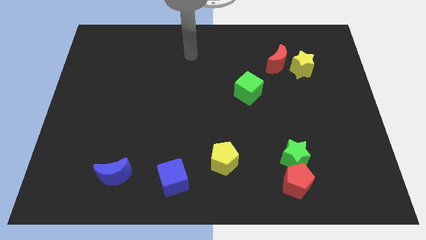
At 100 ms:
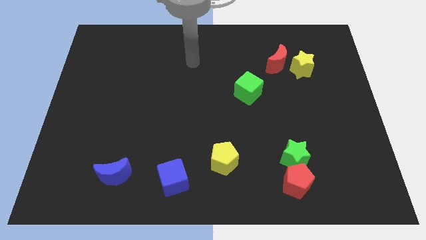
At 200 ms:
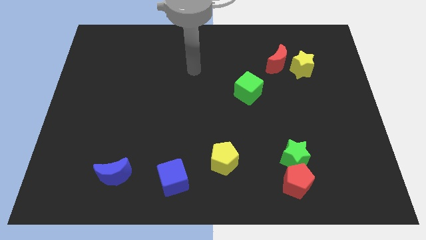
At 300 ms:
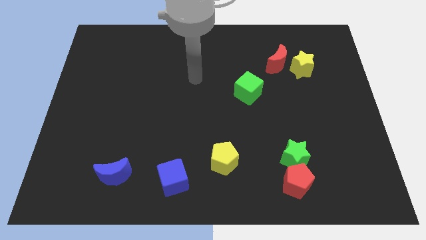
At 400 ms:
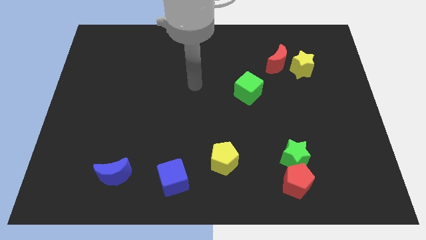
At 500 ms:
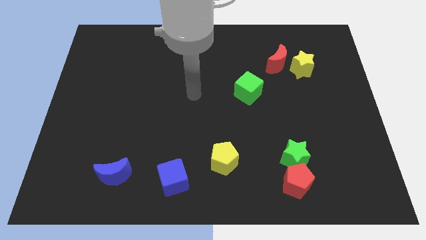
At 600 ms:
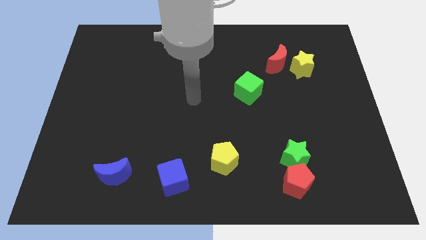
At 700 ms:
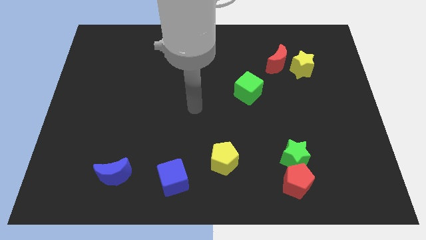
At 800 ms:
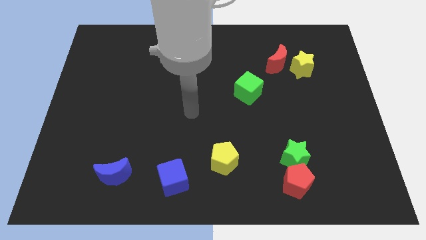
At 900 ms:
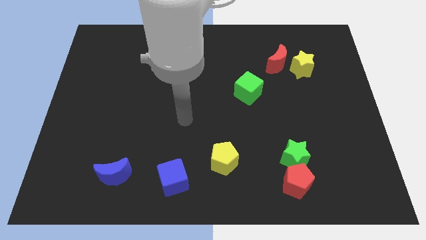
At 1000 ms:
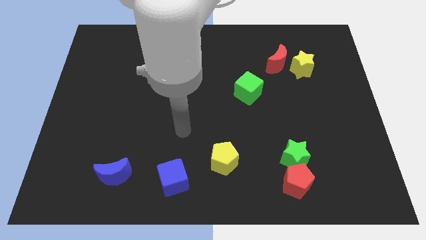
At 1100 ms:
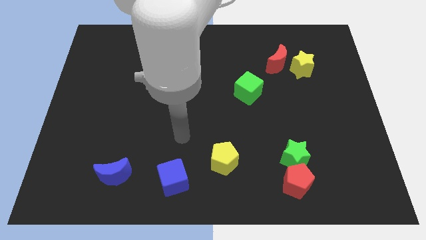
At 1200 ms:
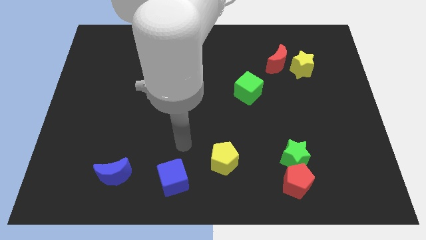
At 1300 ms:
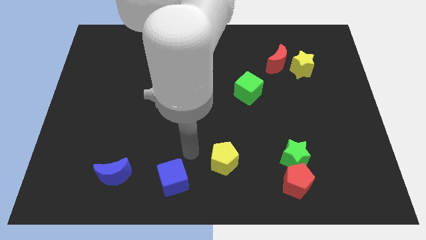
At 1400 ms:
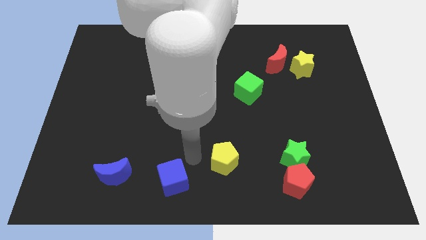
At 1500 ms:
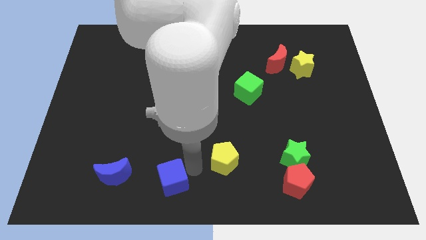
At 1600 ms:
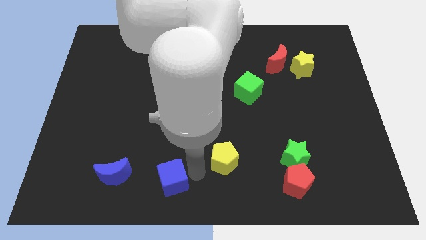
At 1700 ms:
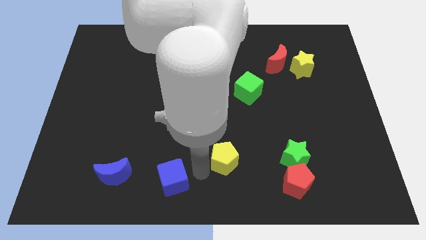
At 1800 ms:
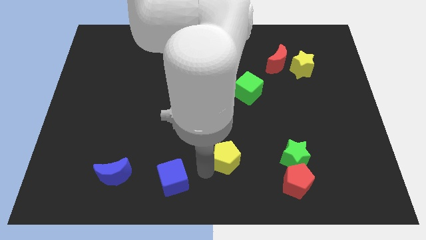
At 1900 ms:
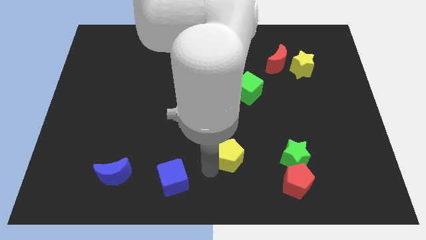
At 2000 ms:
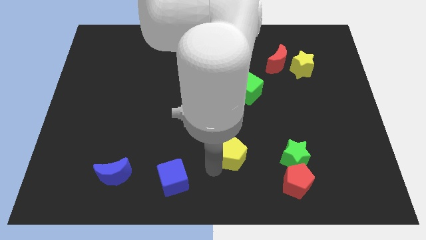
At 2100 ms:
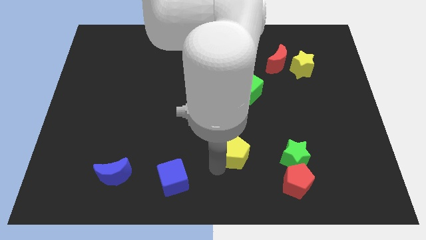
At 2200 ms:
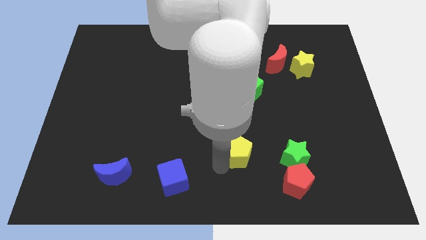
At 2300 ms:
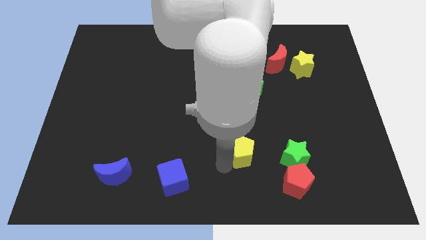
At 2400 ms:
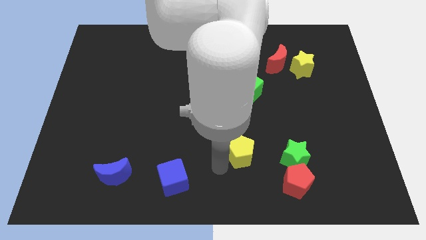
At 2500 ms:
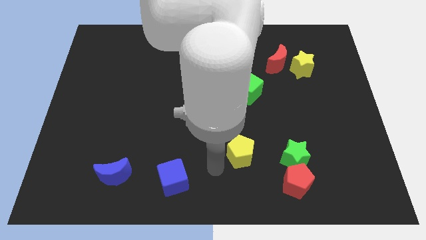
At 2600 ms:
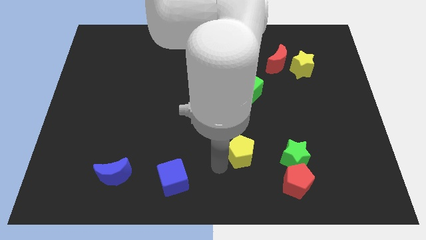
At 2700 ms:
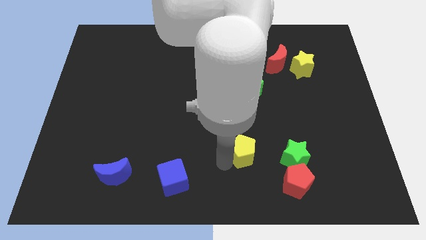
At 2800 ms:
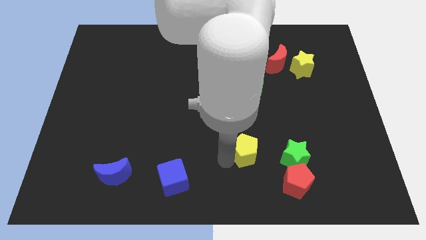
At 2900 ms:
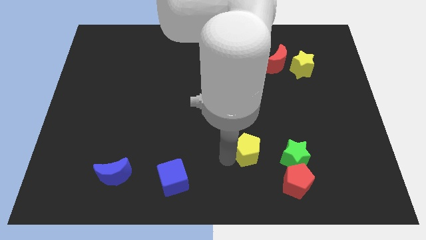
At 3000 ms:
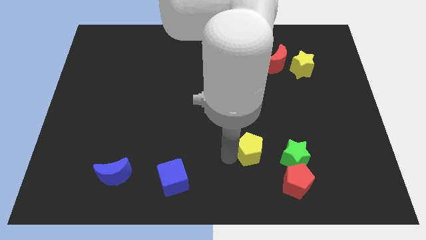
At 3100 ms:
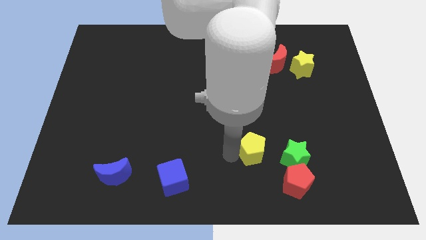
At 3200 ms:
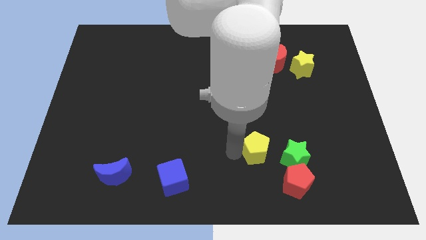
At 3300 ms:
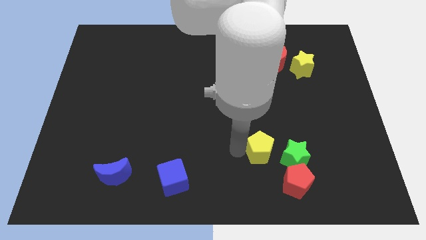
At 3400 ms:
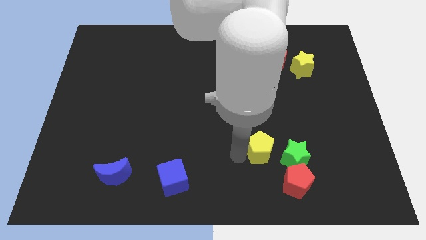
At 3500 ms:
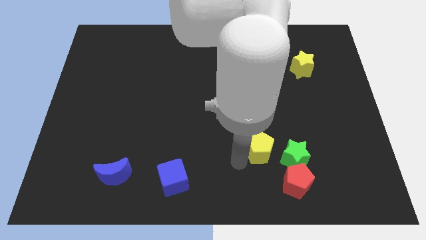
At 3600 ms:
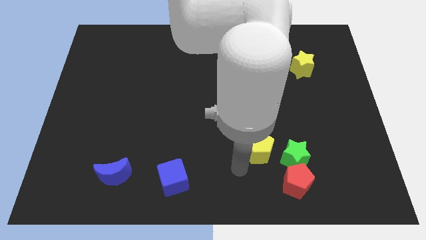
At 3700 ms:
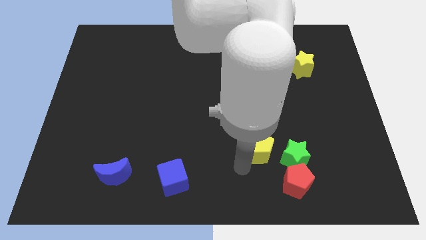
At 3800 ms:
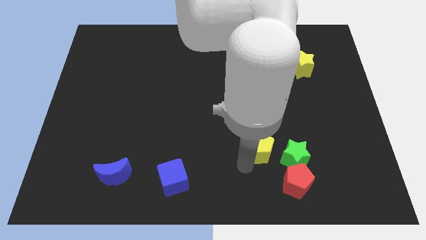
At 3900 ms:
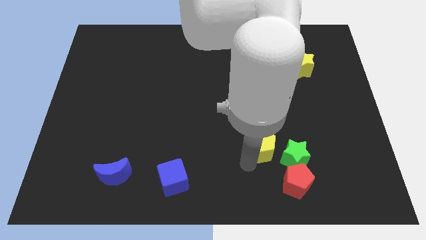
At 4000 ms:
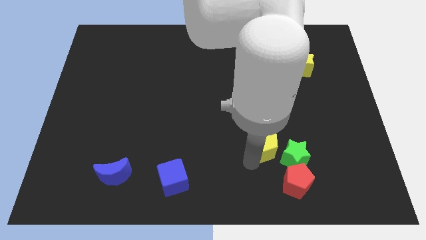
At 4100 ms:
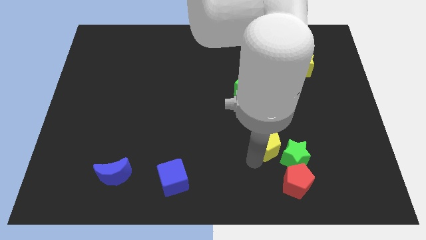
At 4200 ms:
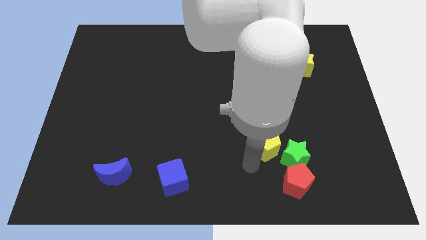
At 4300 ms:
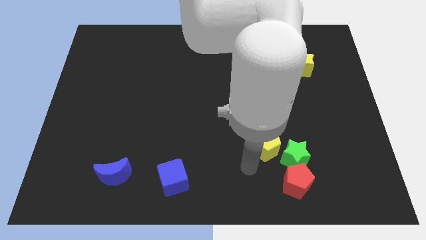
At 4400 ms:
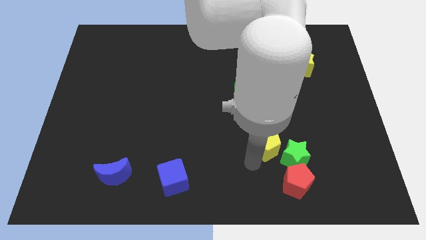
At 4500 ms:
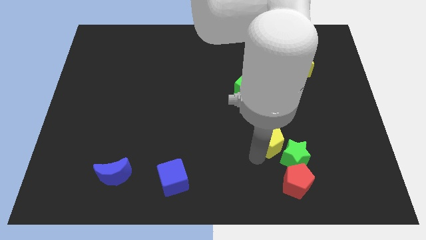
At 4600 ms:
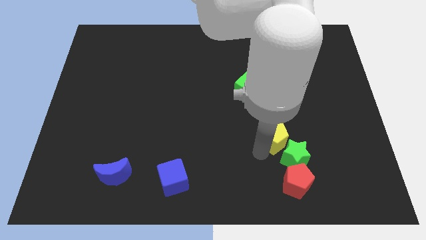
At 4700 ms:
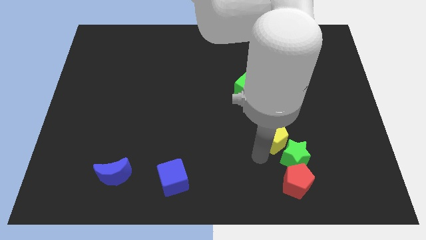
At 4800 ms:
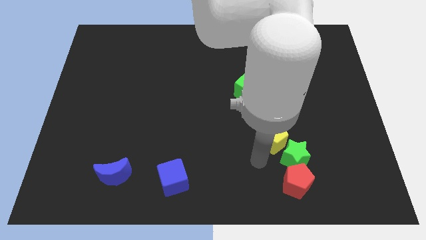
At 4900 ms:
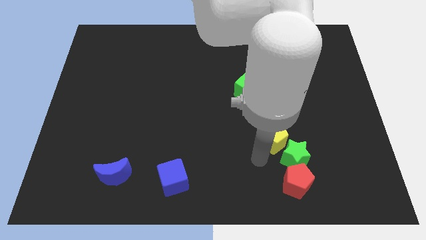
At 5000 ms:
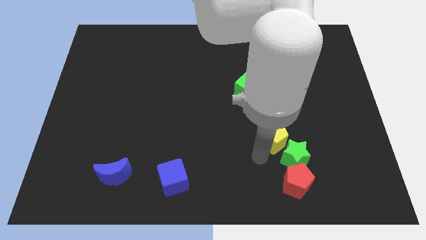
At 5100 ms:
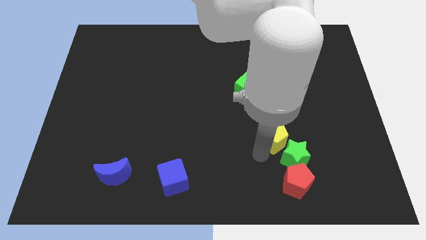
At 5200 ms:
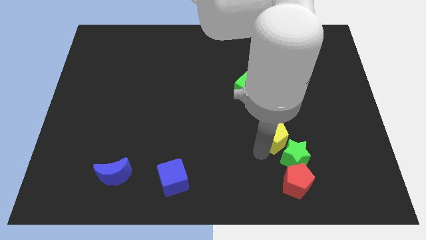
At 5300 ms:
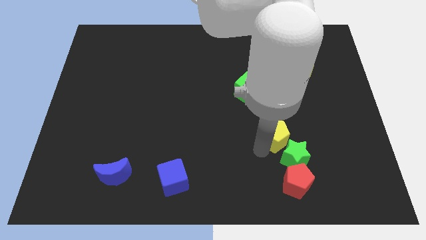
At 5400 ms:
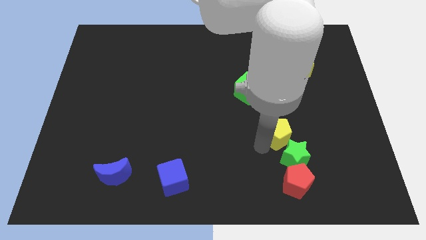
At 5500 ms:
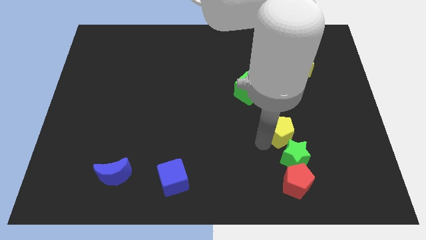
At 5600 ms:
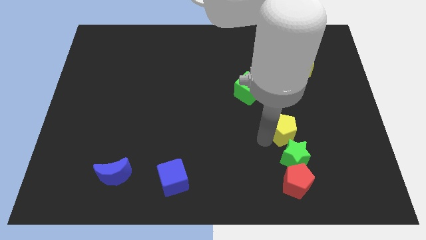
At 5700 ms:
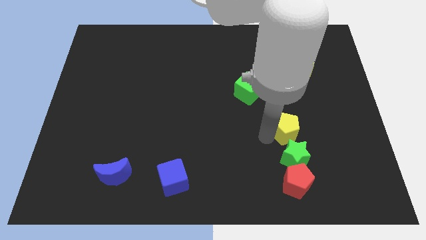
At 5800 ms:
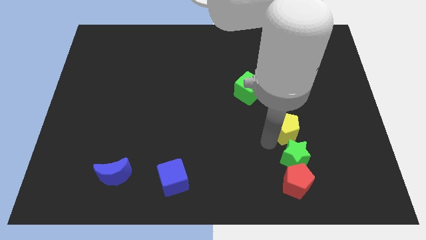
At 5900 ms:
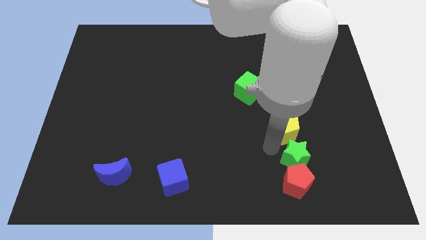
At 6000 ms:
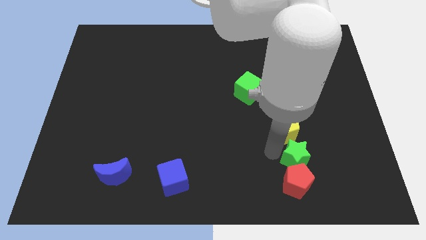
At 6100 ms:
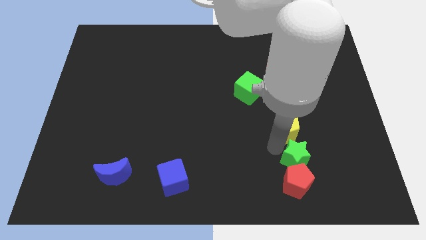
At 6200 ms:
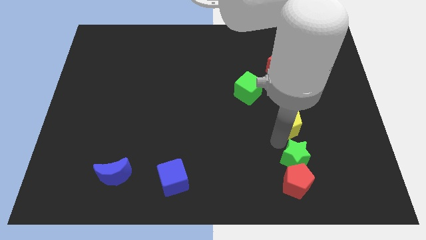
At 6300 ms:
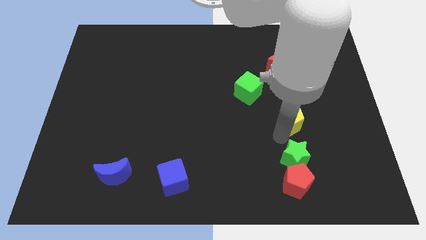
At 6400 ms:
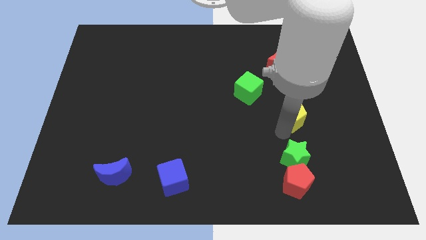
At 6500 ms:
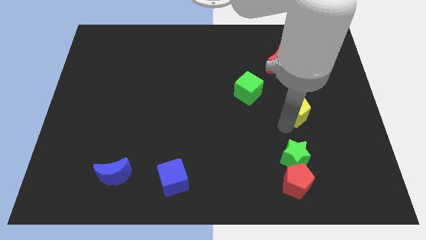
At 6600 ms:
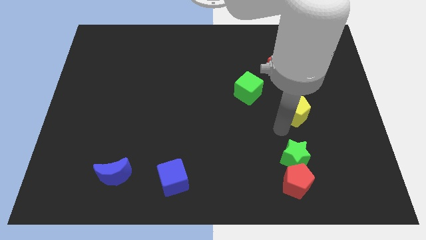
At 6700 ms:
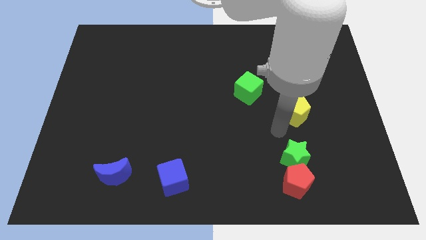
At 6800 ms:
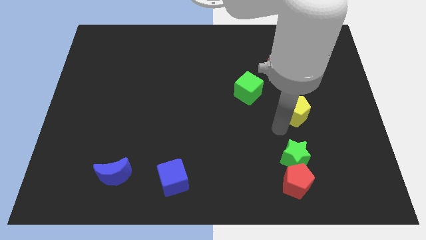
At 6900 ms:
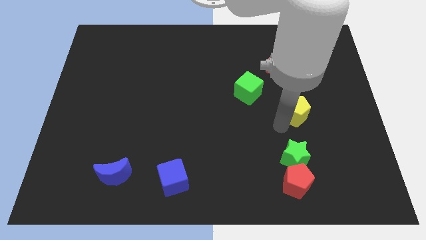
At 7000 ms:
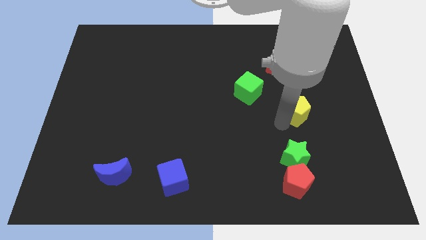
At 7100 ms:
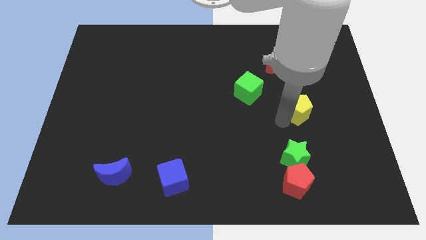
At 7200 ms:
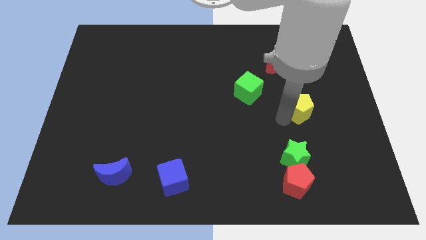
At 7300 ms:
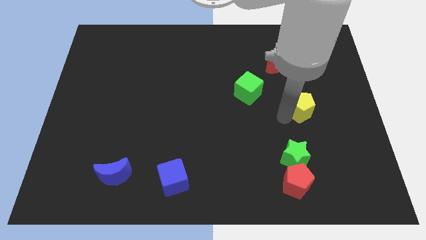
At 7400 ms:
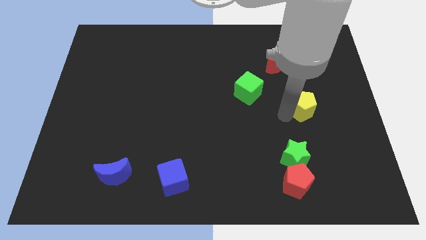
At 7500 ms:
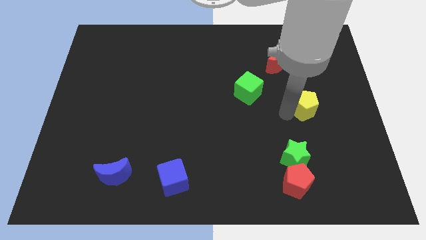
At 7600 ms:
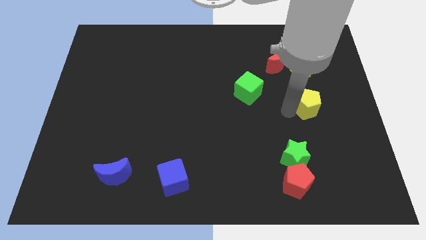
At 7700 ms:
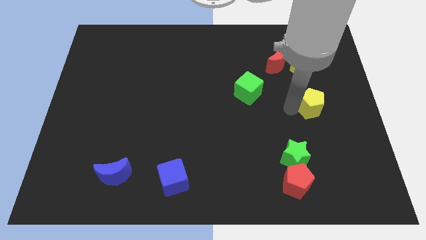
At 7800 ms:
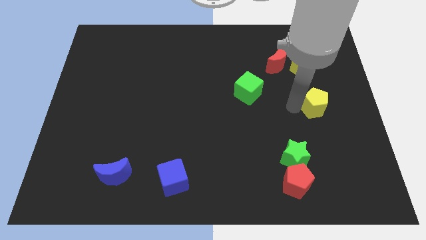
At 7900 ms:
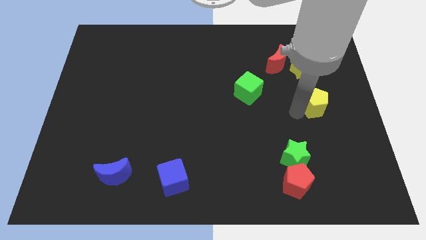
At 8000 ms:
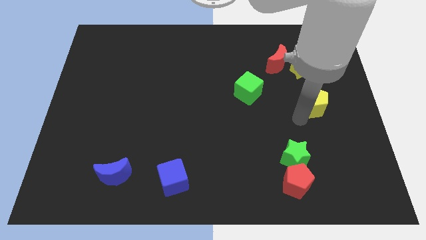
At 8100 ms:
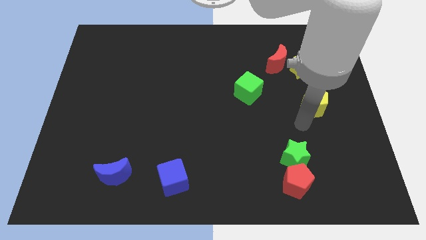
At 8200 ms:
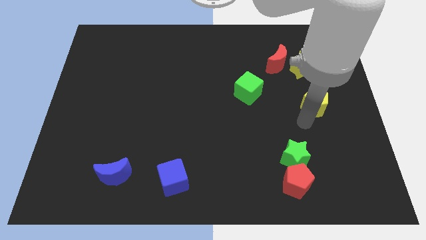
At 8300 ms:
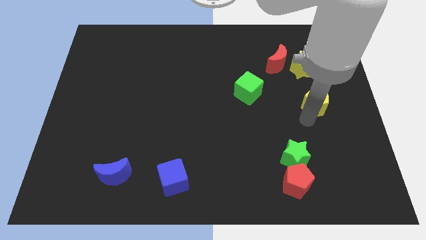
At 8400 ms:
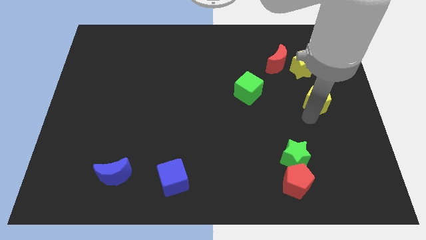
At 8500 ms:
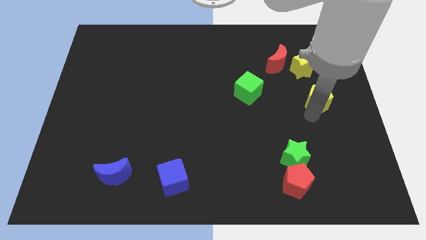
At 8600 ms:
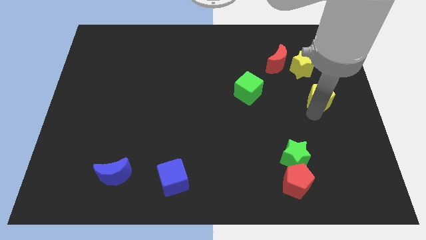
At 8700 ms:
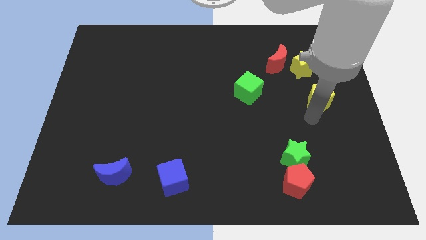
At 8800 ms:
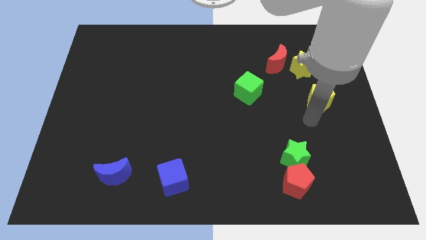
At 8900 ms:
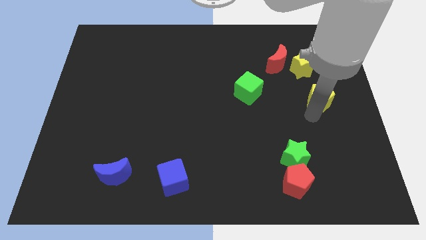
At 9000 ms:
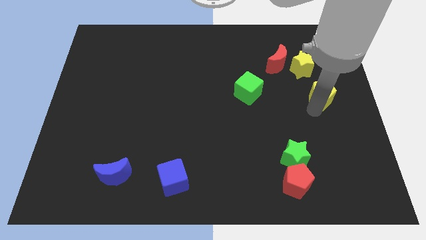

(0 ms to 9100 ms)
slide the yellow pentagon to the bottom right of the yellow star
